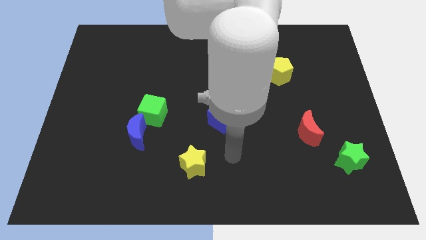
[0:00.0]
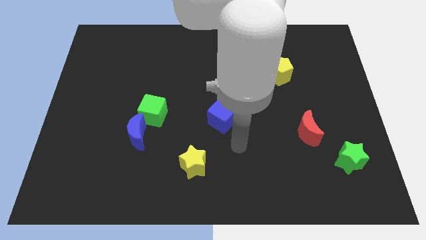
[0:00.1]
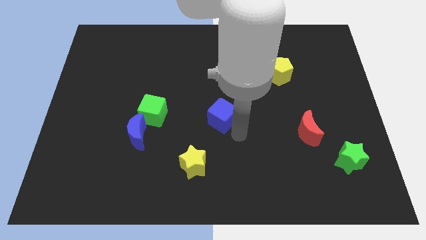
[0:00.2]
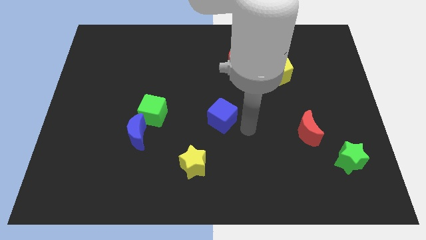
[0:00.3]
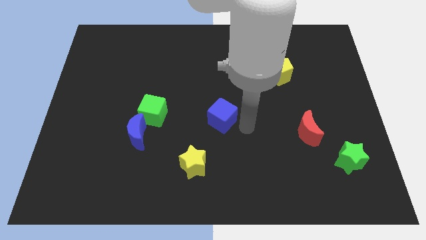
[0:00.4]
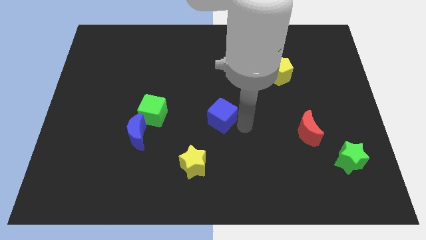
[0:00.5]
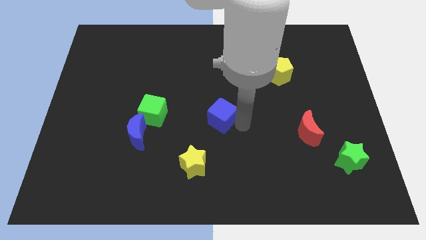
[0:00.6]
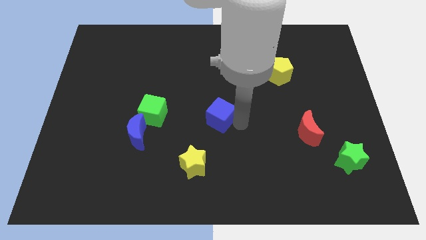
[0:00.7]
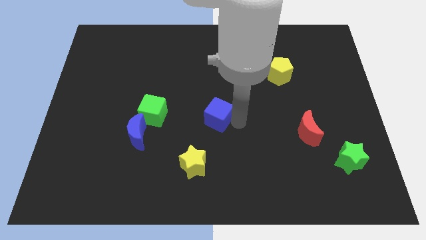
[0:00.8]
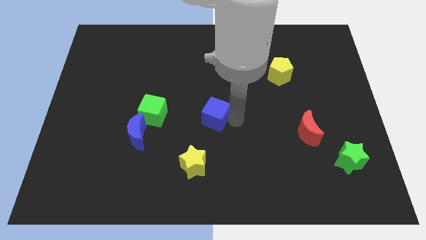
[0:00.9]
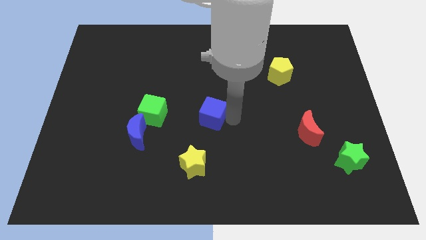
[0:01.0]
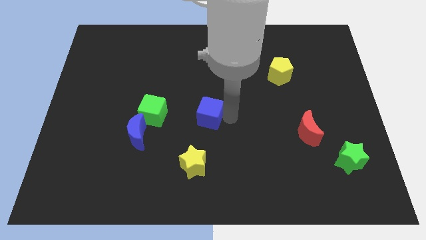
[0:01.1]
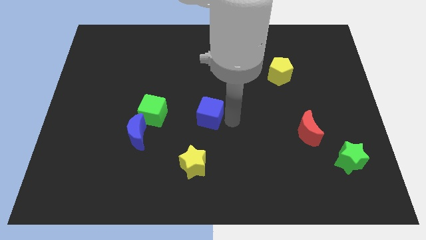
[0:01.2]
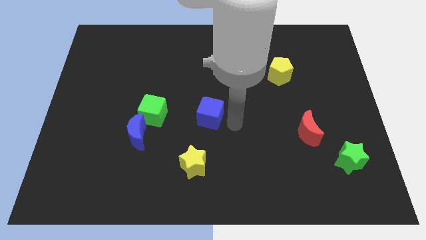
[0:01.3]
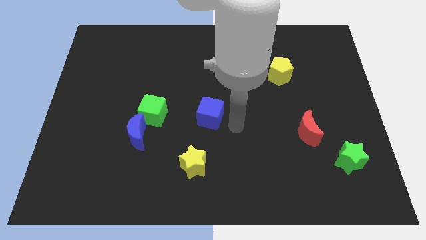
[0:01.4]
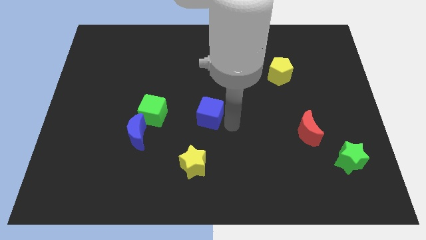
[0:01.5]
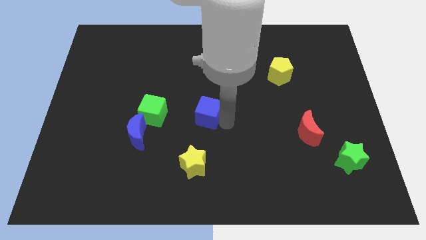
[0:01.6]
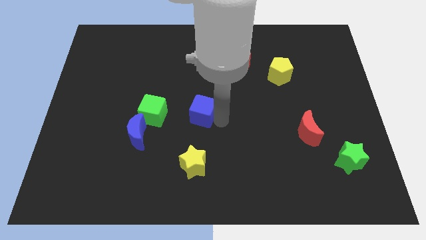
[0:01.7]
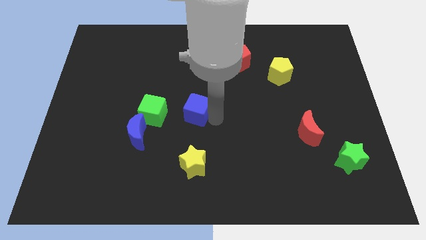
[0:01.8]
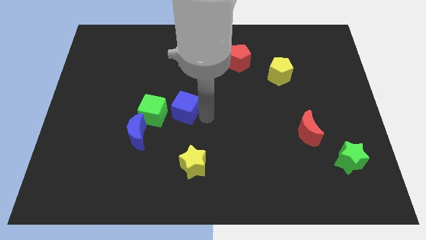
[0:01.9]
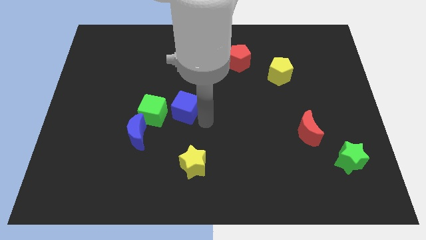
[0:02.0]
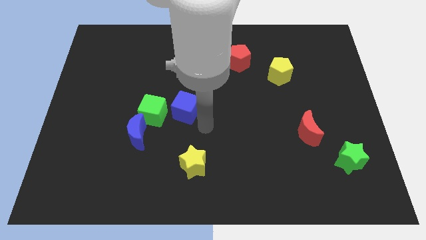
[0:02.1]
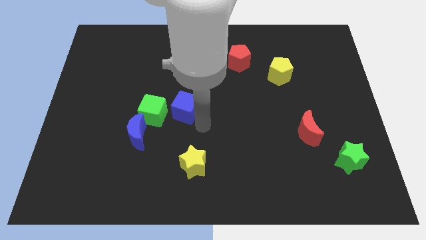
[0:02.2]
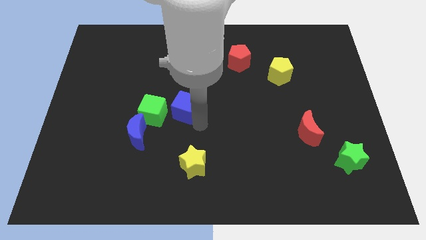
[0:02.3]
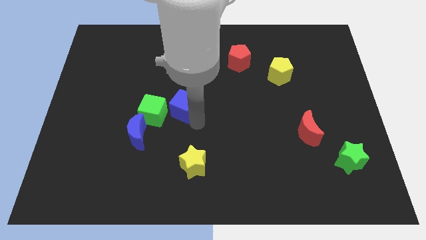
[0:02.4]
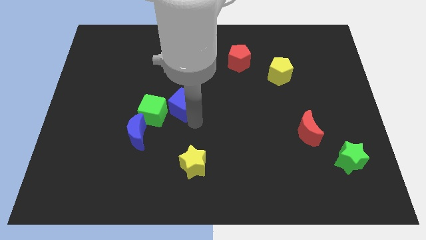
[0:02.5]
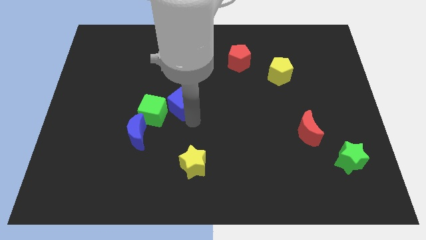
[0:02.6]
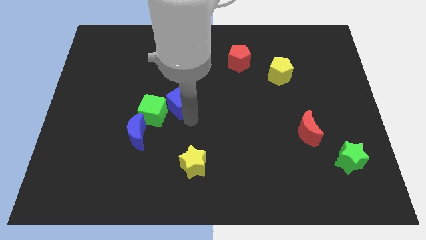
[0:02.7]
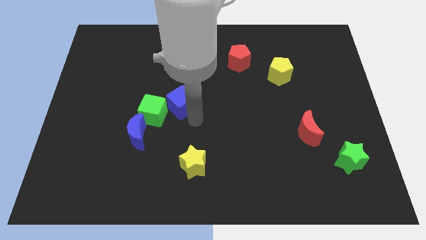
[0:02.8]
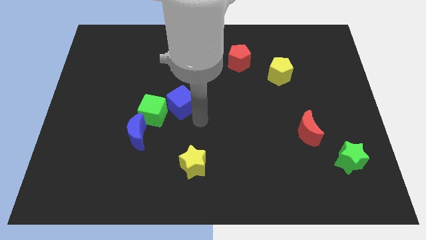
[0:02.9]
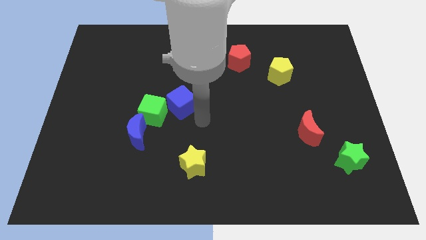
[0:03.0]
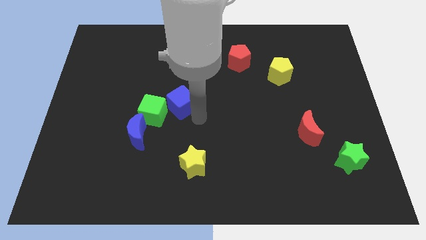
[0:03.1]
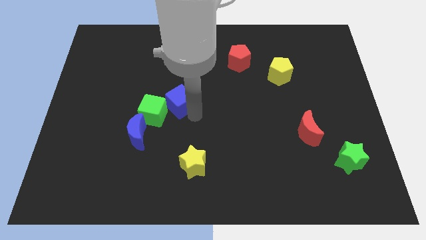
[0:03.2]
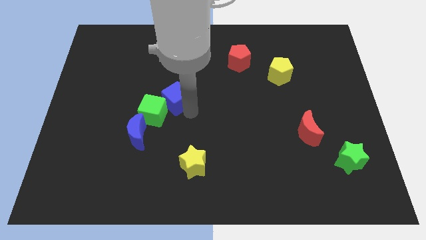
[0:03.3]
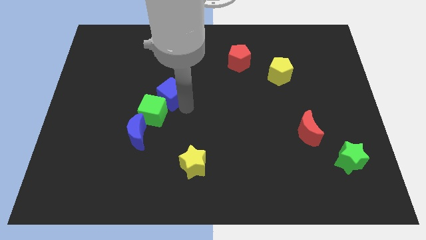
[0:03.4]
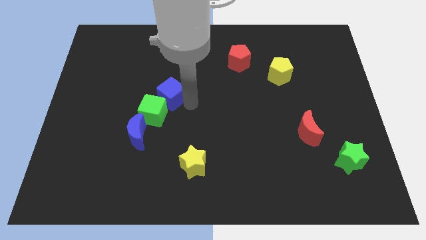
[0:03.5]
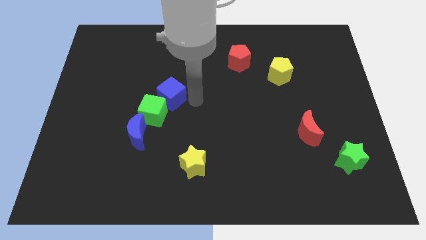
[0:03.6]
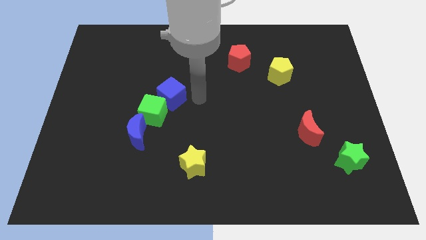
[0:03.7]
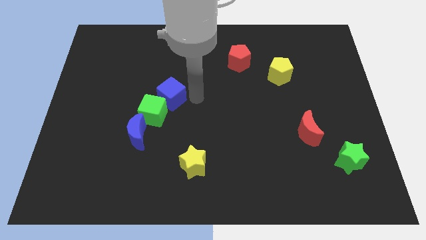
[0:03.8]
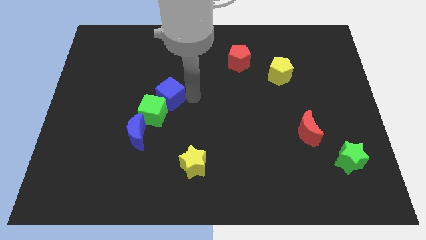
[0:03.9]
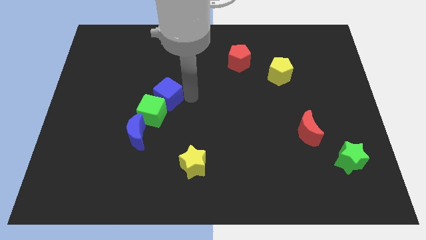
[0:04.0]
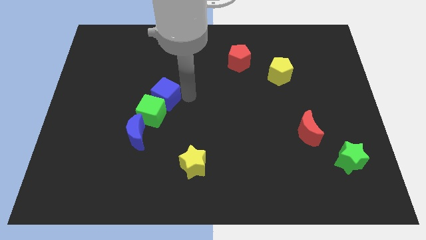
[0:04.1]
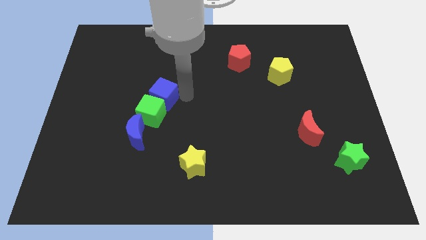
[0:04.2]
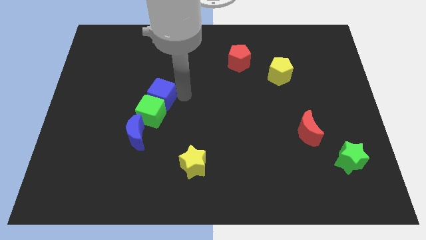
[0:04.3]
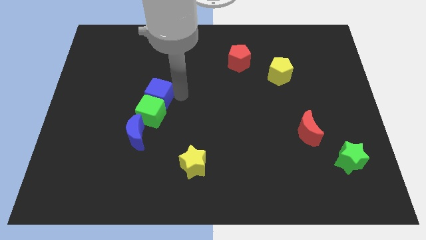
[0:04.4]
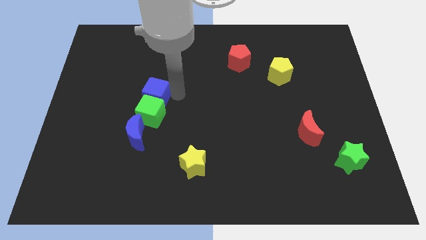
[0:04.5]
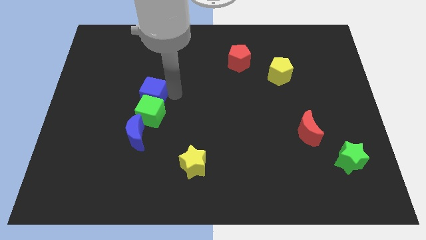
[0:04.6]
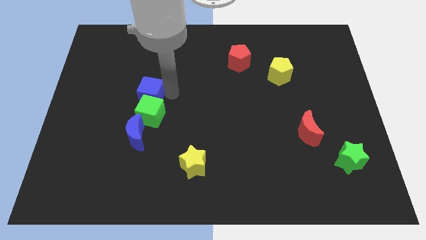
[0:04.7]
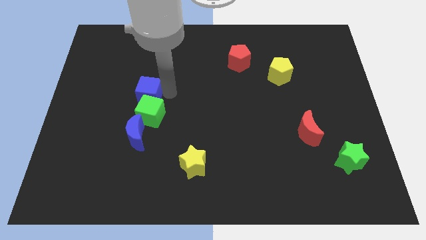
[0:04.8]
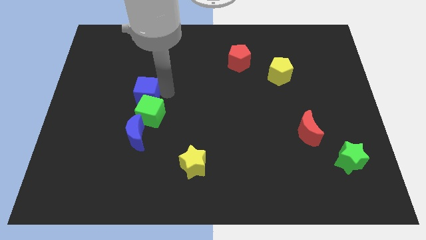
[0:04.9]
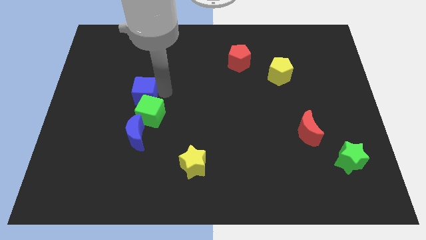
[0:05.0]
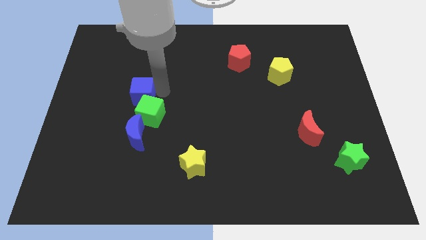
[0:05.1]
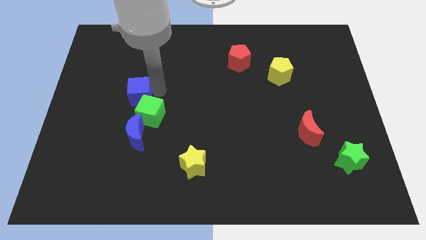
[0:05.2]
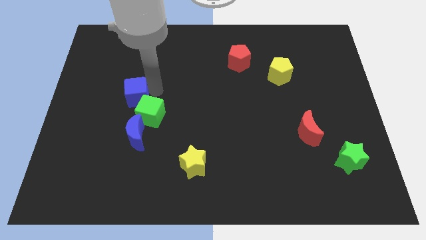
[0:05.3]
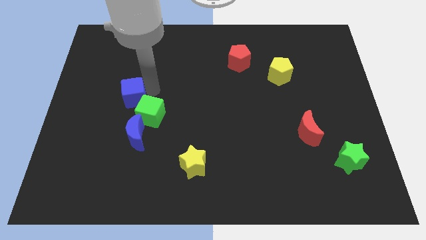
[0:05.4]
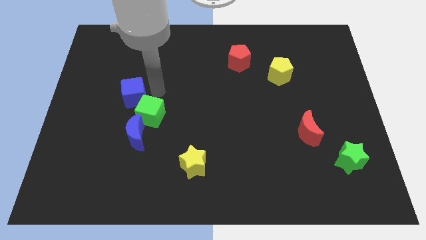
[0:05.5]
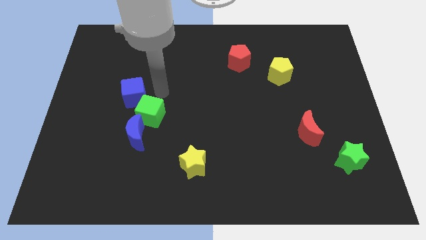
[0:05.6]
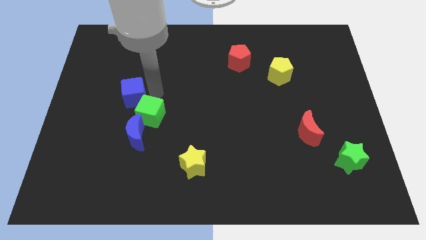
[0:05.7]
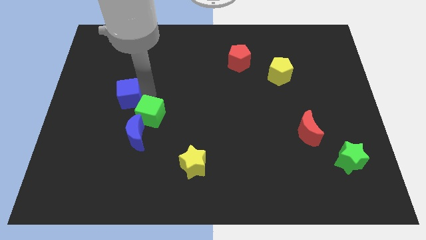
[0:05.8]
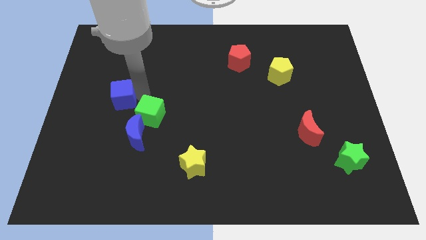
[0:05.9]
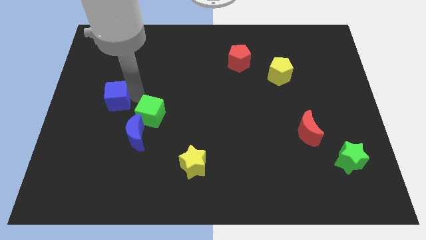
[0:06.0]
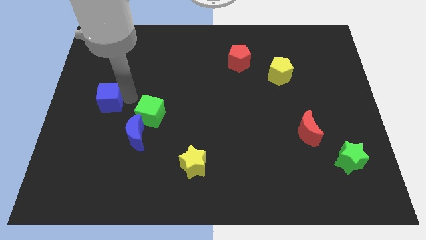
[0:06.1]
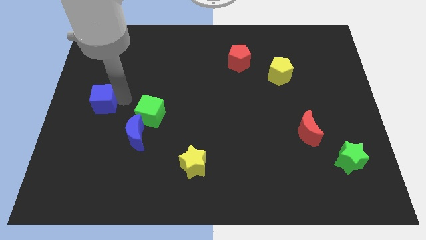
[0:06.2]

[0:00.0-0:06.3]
push the blue cube to the center left
